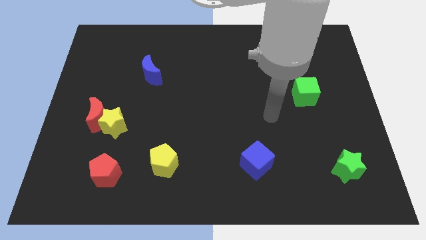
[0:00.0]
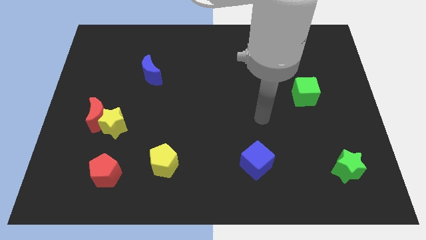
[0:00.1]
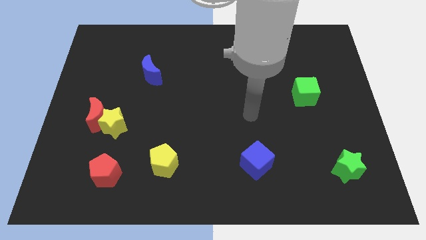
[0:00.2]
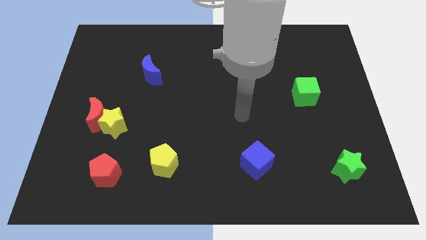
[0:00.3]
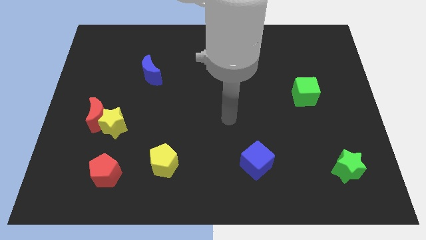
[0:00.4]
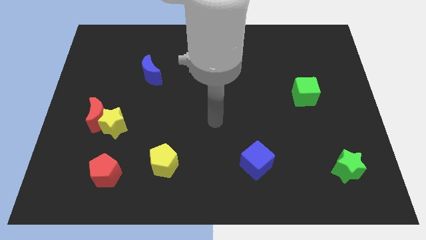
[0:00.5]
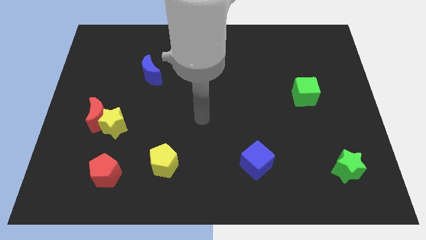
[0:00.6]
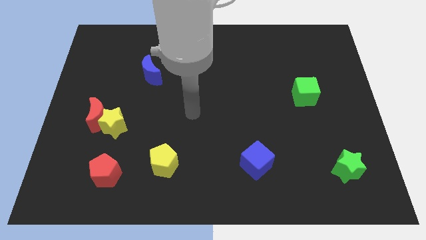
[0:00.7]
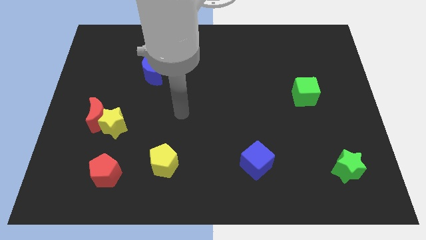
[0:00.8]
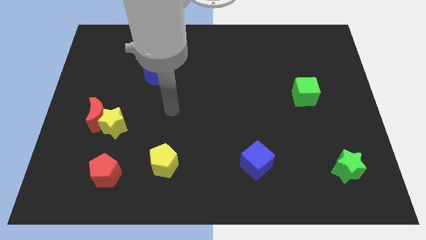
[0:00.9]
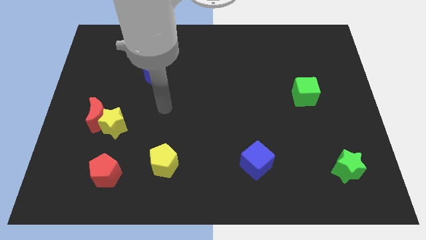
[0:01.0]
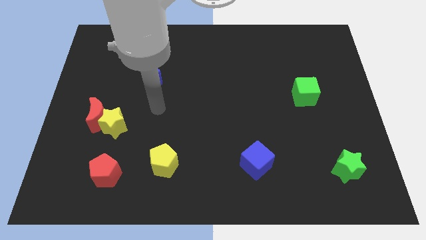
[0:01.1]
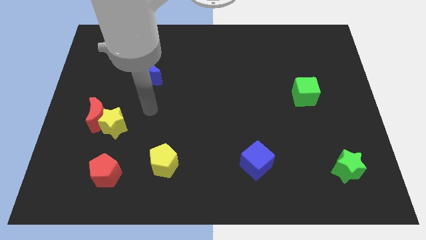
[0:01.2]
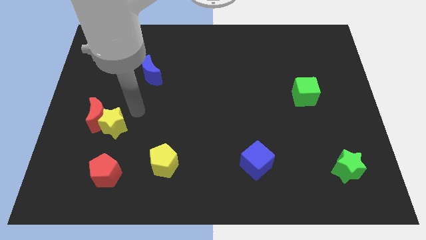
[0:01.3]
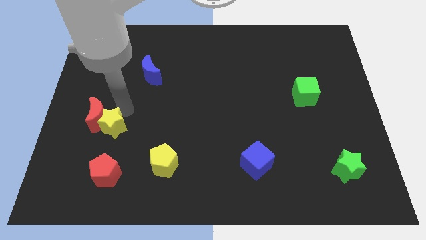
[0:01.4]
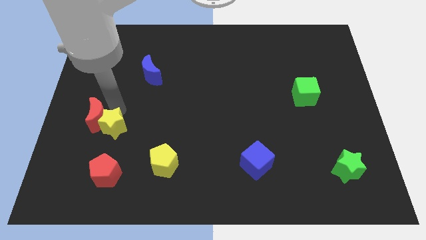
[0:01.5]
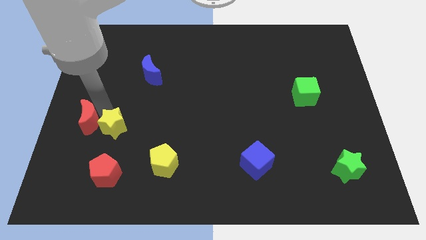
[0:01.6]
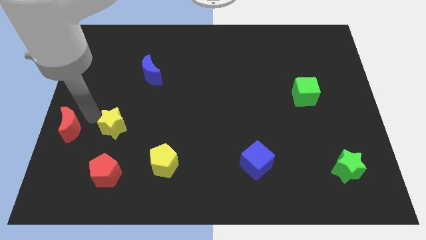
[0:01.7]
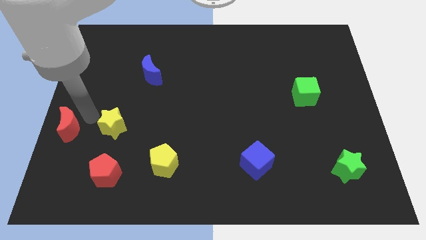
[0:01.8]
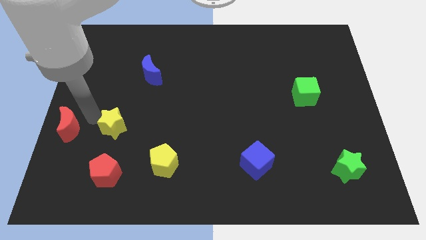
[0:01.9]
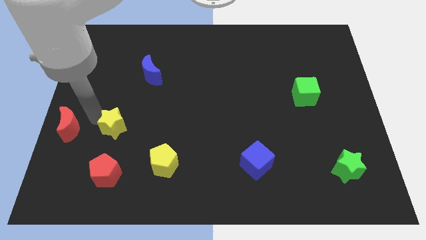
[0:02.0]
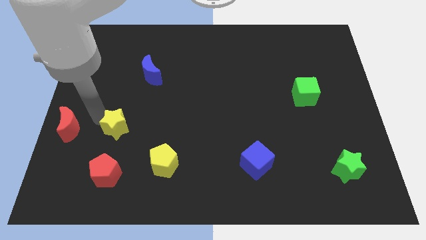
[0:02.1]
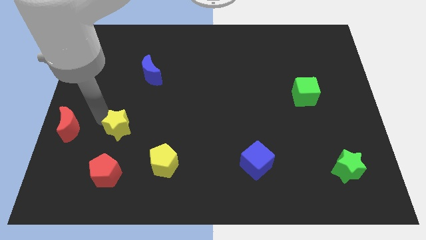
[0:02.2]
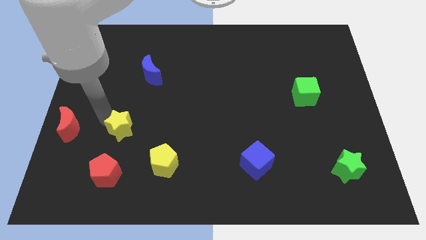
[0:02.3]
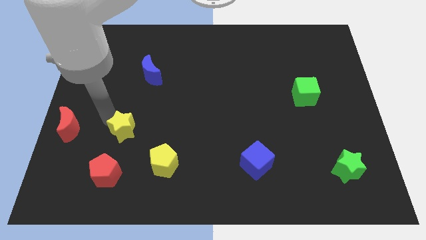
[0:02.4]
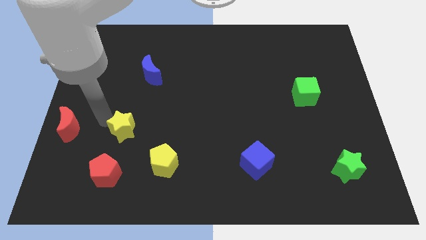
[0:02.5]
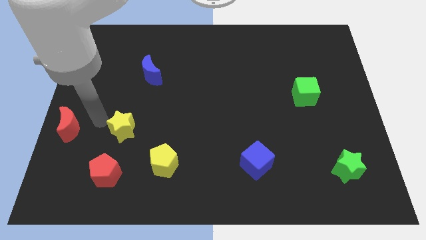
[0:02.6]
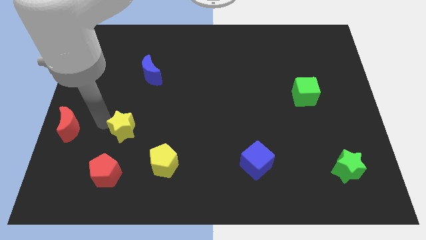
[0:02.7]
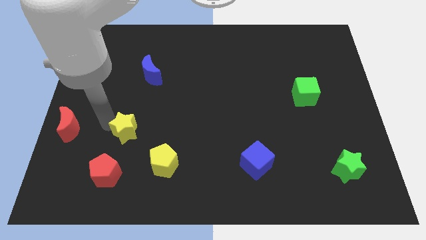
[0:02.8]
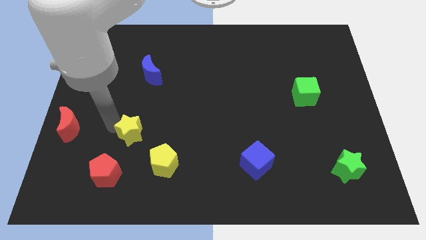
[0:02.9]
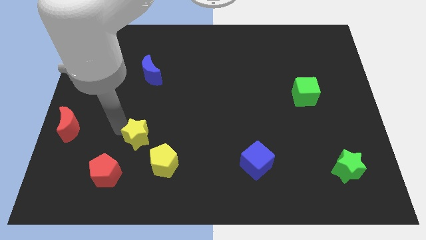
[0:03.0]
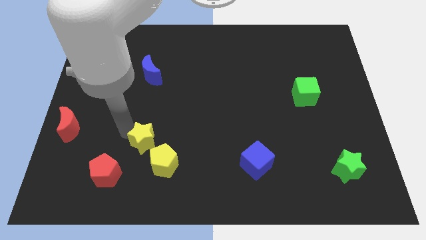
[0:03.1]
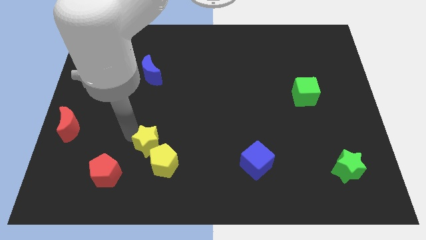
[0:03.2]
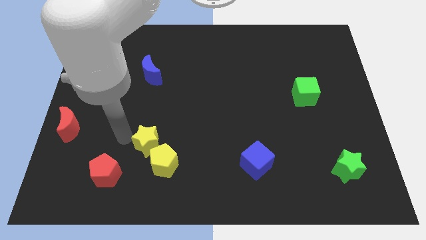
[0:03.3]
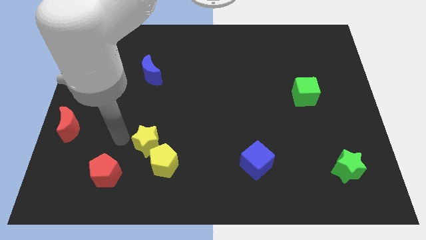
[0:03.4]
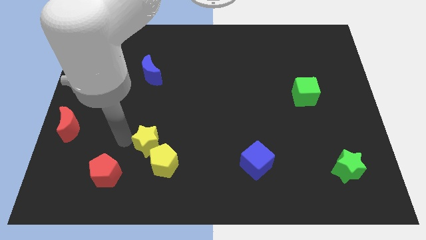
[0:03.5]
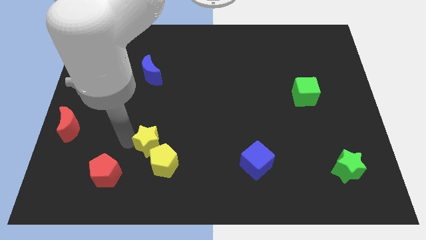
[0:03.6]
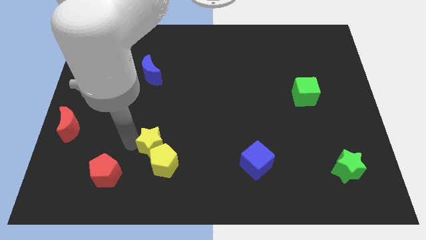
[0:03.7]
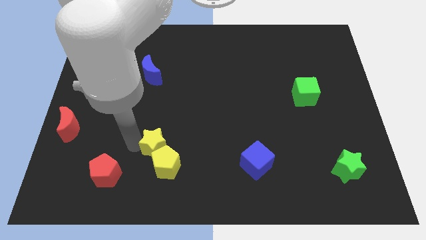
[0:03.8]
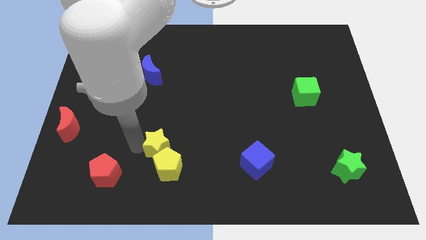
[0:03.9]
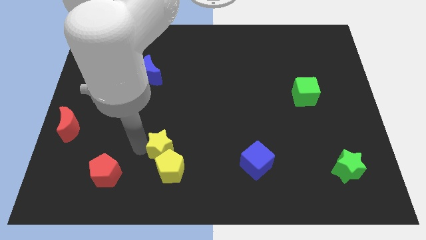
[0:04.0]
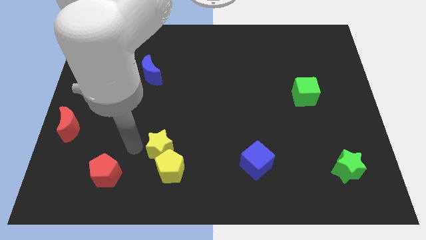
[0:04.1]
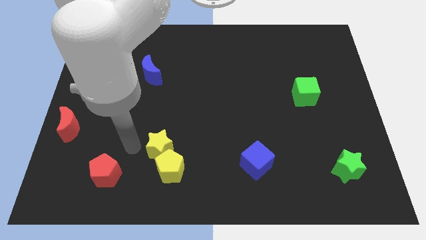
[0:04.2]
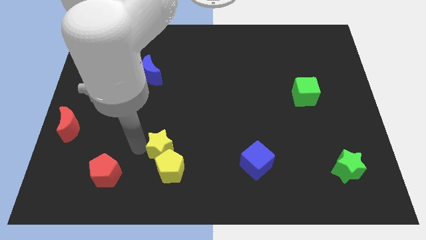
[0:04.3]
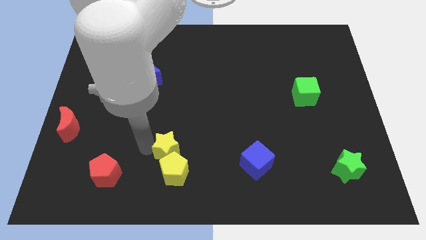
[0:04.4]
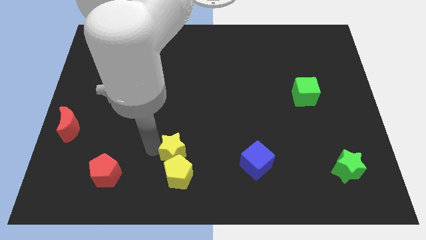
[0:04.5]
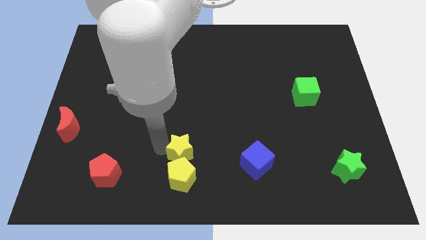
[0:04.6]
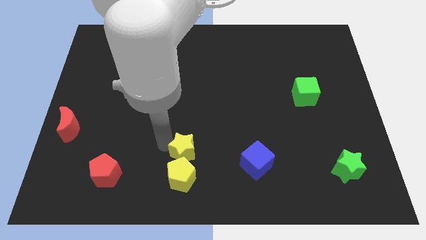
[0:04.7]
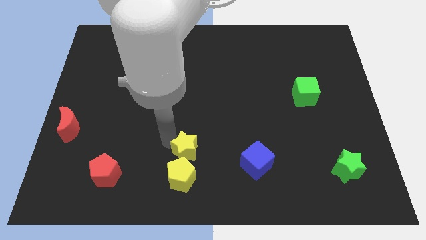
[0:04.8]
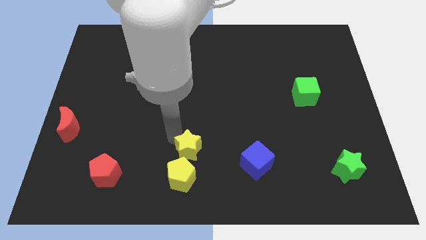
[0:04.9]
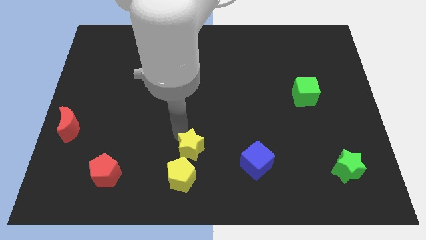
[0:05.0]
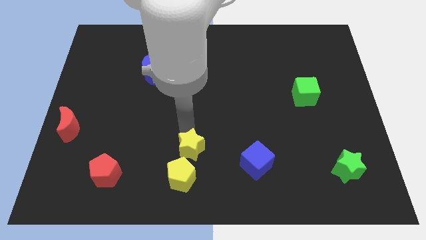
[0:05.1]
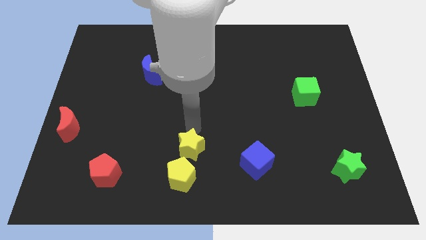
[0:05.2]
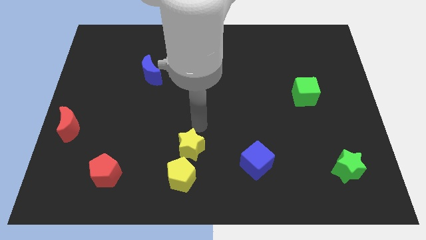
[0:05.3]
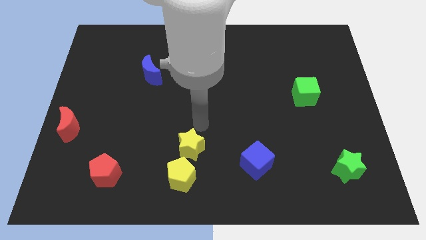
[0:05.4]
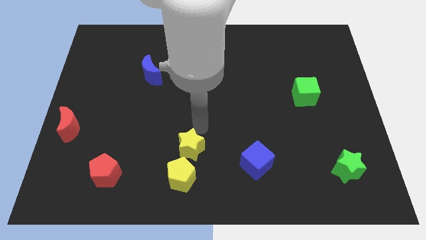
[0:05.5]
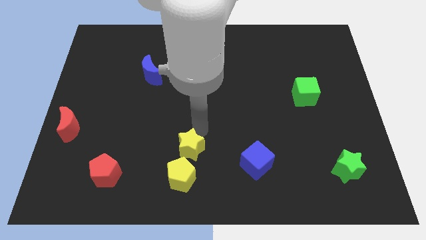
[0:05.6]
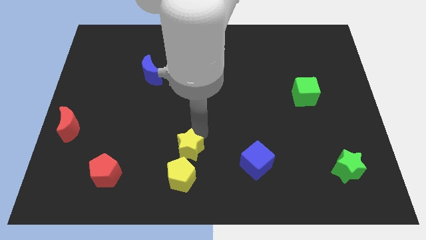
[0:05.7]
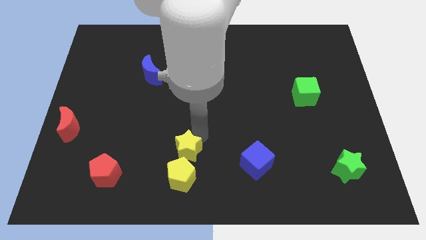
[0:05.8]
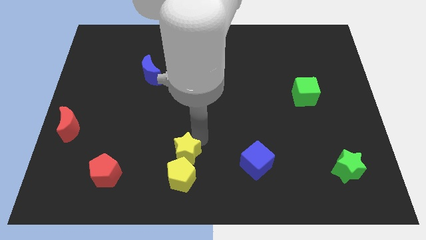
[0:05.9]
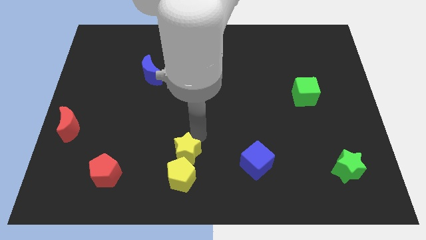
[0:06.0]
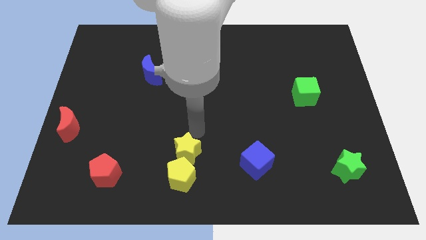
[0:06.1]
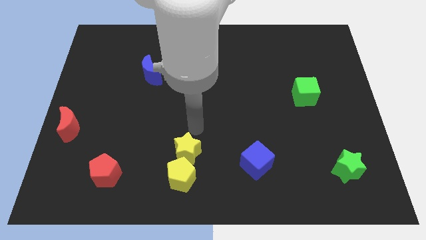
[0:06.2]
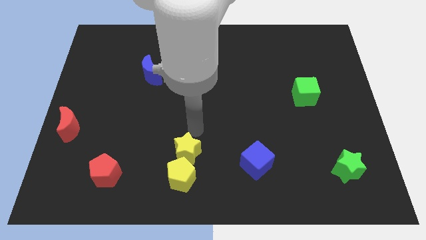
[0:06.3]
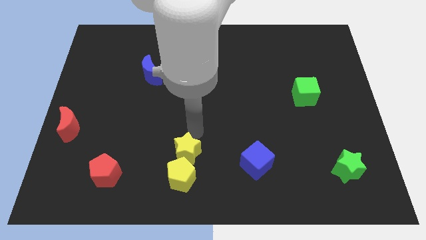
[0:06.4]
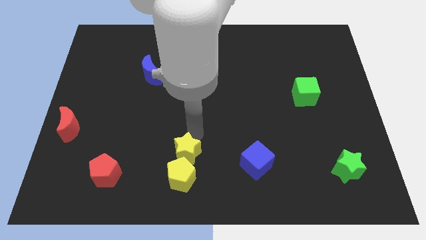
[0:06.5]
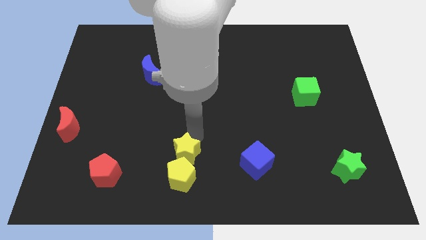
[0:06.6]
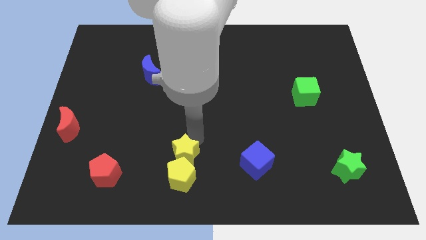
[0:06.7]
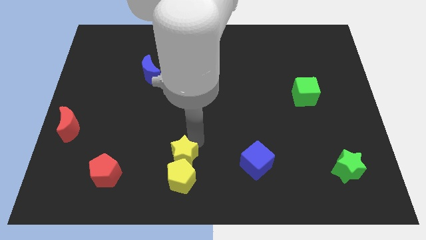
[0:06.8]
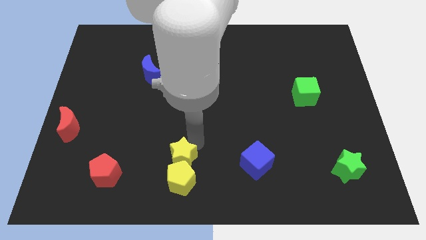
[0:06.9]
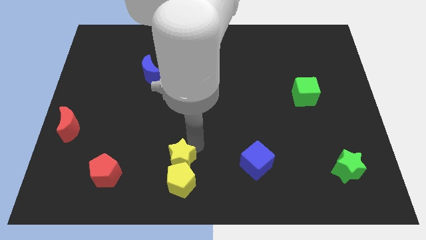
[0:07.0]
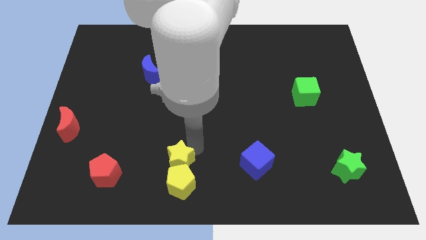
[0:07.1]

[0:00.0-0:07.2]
move the yellow star to the right side of the red pentagon

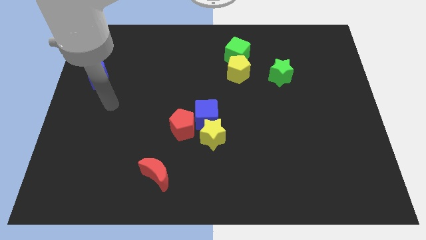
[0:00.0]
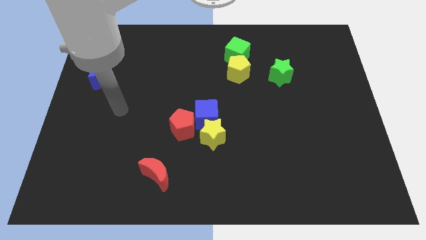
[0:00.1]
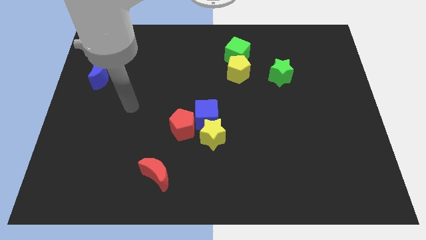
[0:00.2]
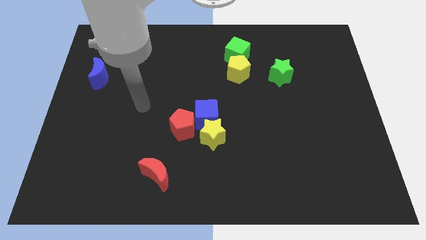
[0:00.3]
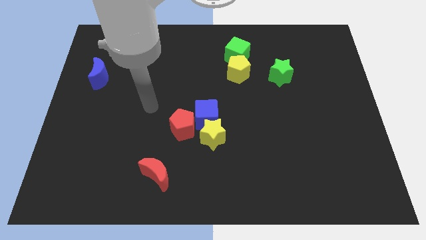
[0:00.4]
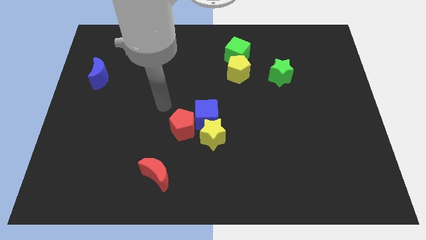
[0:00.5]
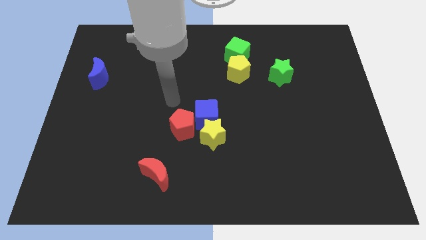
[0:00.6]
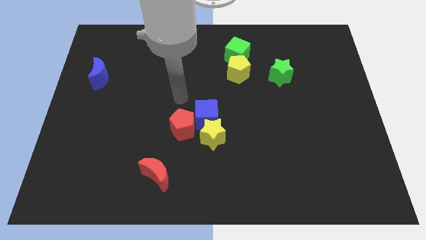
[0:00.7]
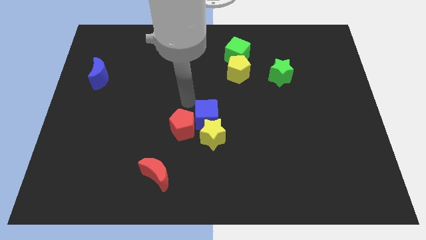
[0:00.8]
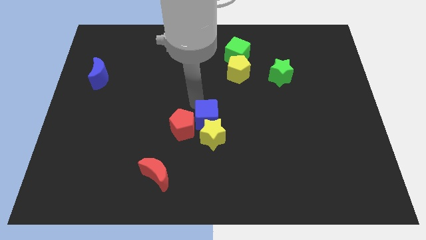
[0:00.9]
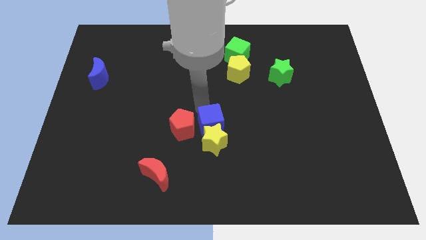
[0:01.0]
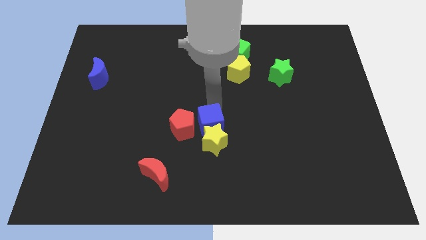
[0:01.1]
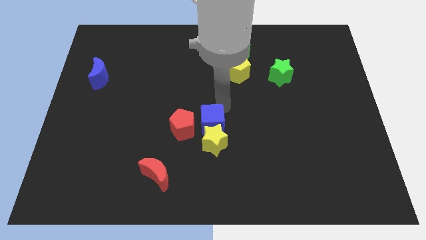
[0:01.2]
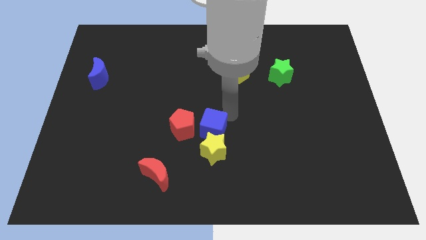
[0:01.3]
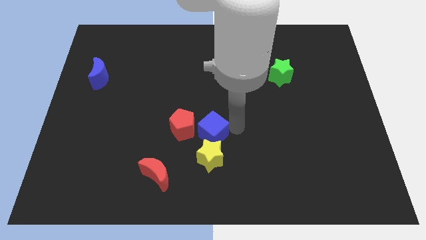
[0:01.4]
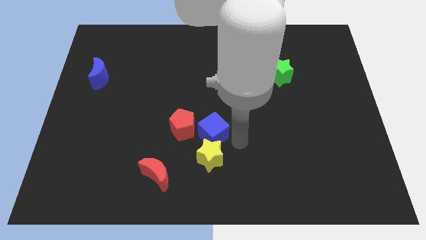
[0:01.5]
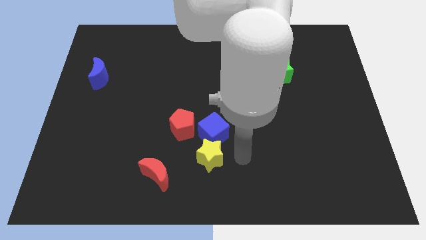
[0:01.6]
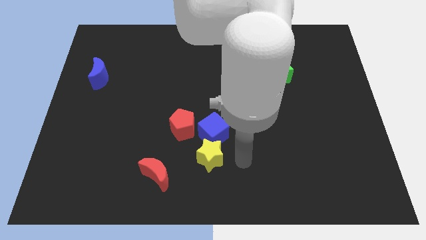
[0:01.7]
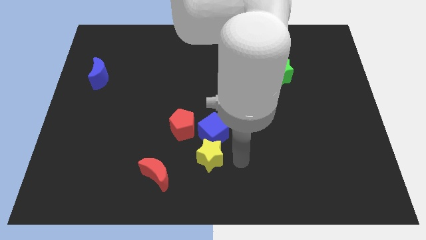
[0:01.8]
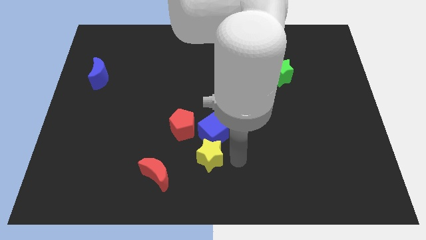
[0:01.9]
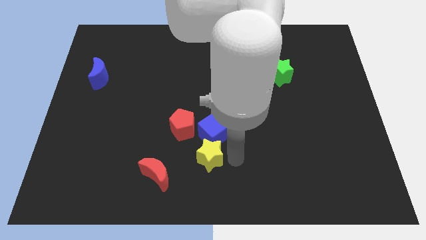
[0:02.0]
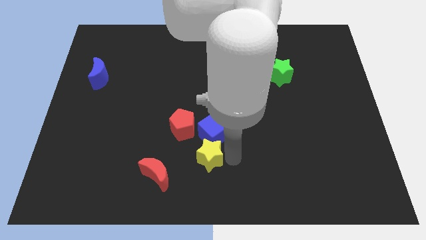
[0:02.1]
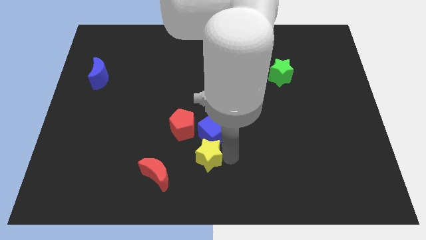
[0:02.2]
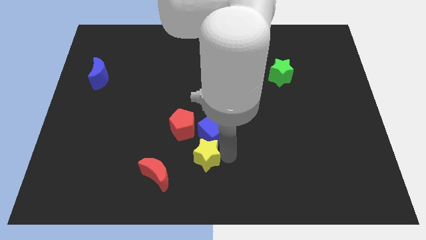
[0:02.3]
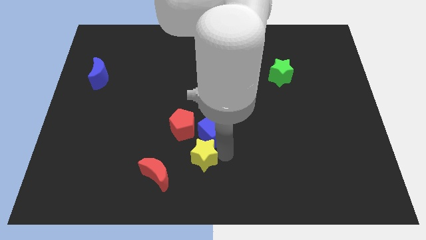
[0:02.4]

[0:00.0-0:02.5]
put the yellow star to the bottom of the red pentagon
